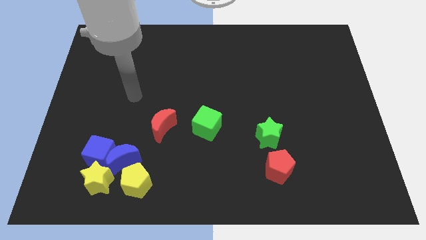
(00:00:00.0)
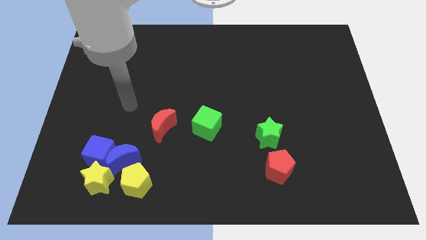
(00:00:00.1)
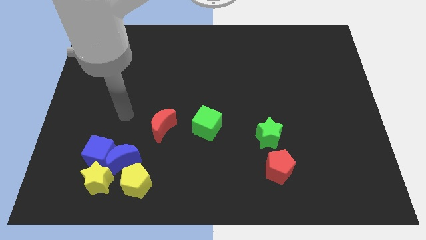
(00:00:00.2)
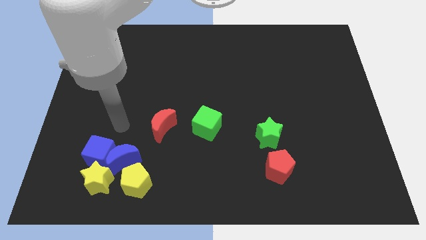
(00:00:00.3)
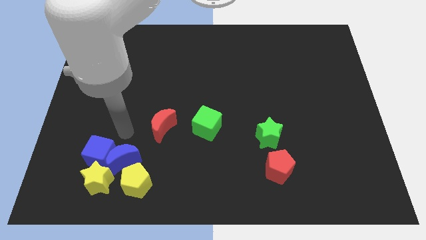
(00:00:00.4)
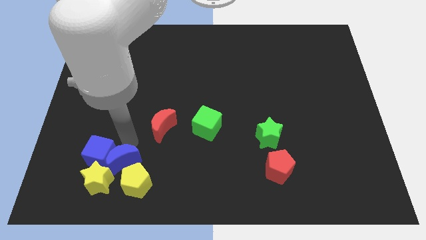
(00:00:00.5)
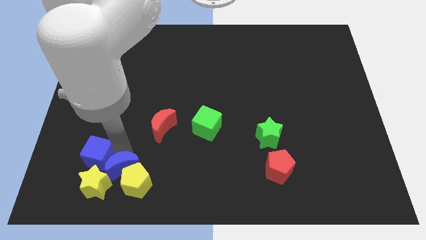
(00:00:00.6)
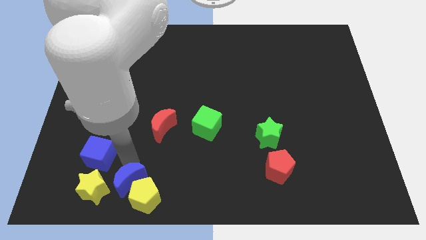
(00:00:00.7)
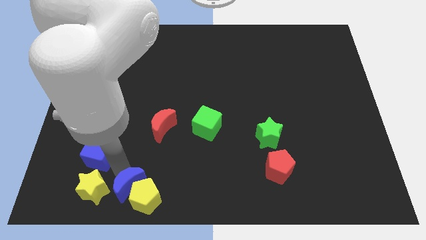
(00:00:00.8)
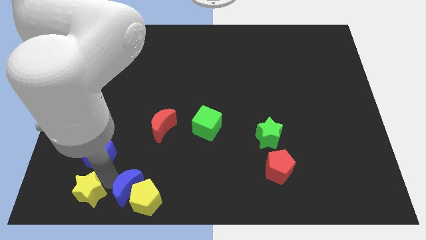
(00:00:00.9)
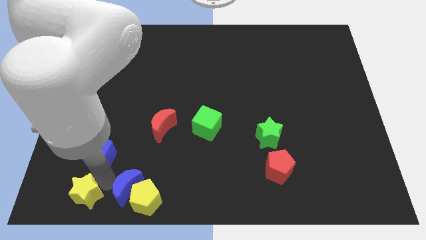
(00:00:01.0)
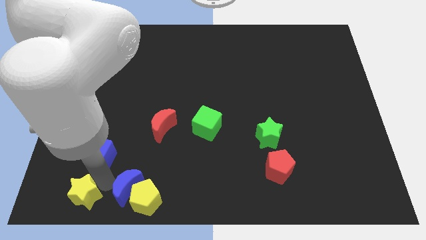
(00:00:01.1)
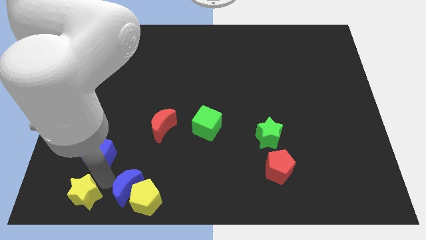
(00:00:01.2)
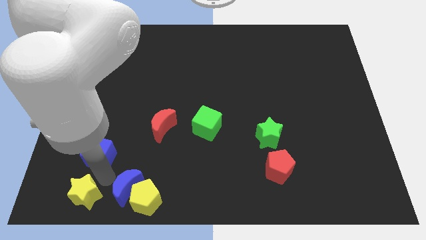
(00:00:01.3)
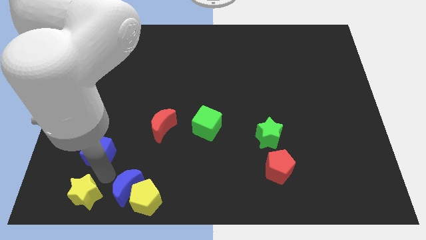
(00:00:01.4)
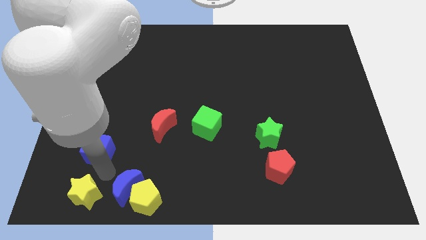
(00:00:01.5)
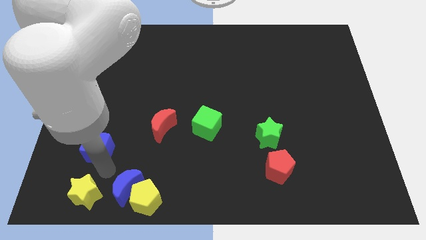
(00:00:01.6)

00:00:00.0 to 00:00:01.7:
move the blue cube away from the blue moon and yellow star

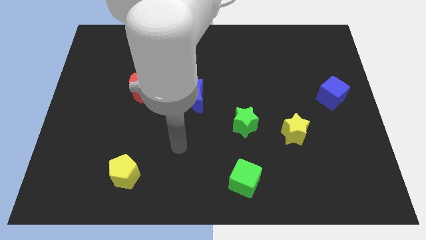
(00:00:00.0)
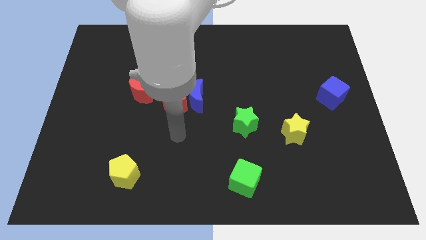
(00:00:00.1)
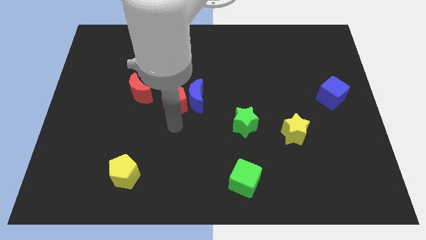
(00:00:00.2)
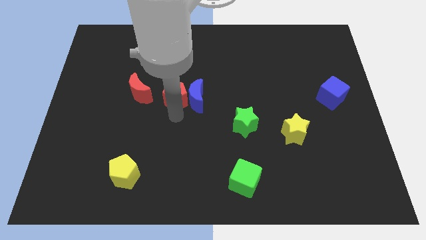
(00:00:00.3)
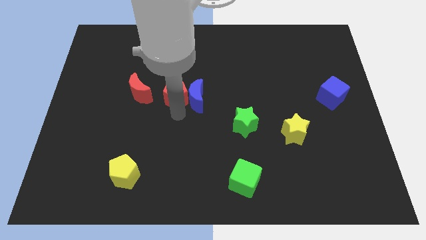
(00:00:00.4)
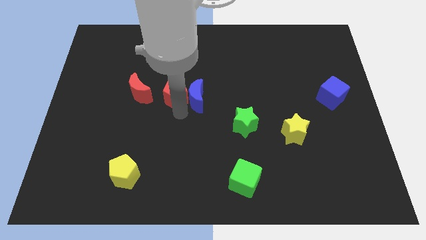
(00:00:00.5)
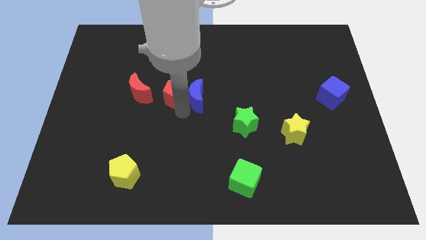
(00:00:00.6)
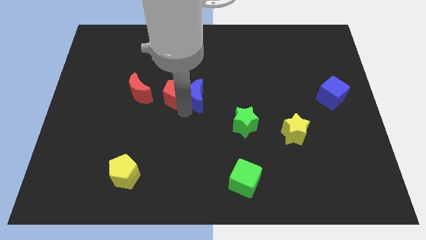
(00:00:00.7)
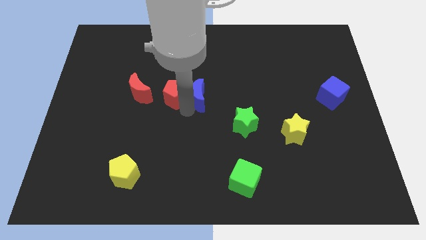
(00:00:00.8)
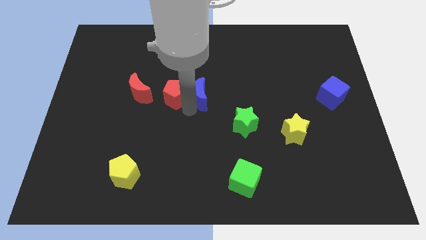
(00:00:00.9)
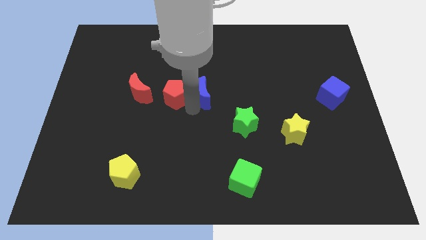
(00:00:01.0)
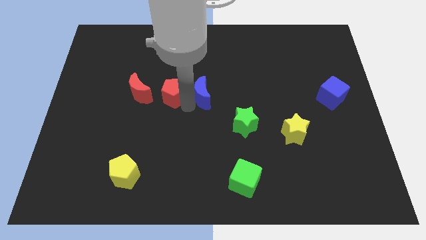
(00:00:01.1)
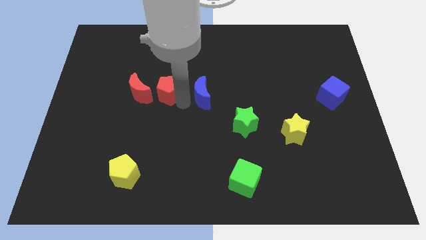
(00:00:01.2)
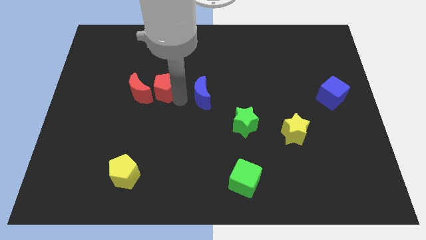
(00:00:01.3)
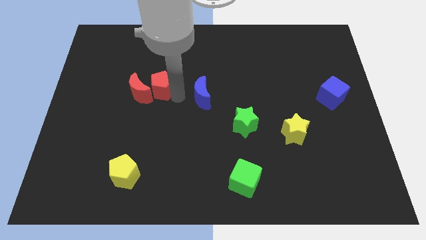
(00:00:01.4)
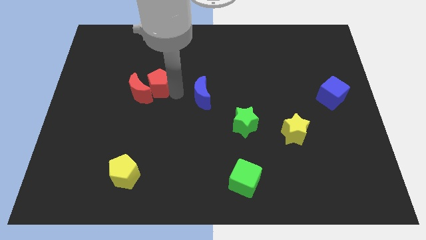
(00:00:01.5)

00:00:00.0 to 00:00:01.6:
separate the blue moon from the red pentagon

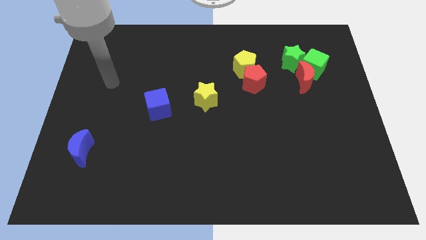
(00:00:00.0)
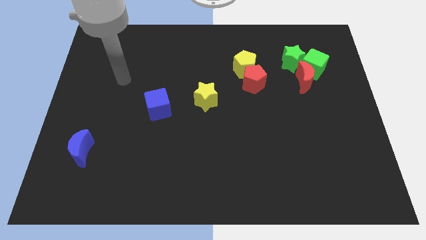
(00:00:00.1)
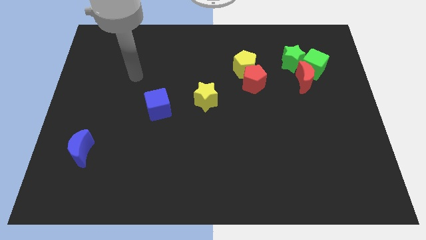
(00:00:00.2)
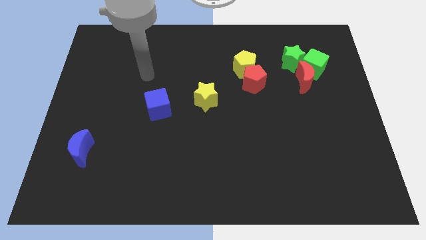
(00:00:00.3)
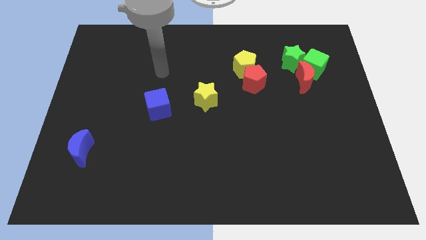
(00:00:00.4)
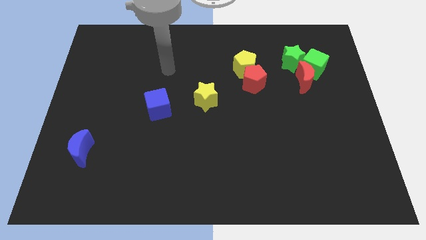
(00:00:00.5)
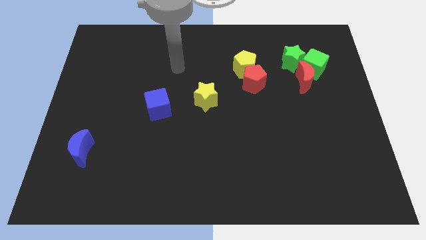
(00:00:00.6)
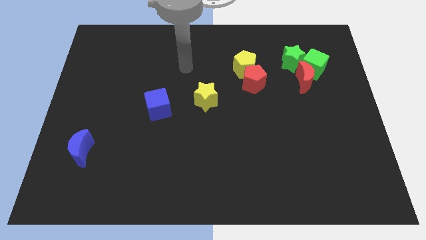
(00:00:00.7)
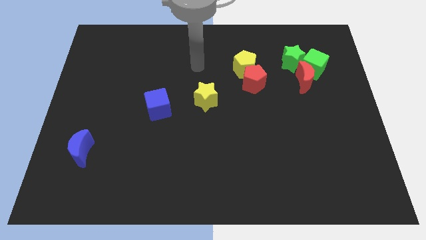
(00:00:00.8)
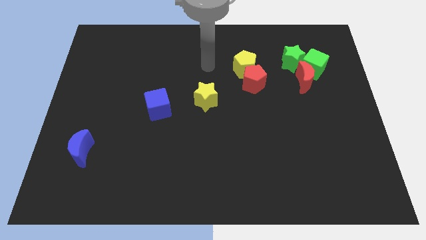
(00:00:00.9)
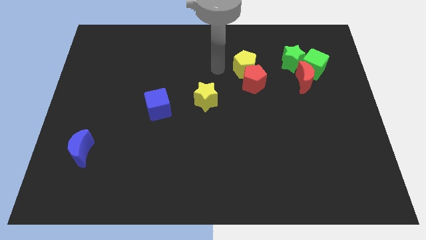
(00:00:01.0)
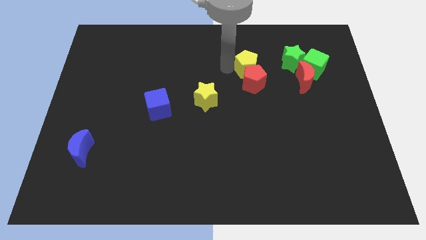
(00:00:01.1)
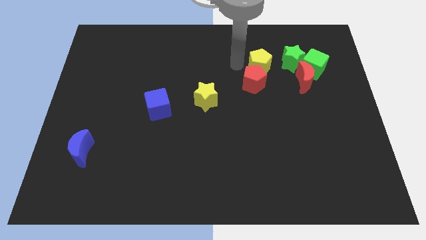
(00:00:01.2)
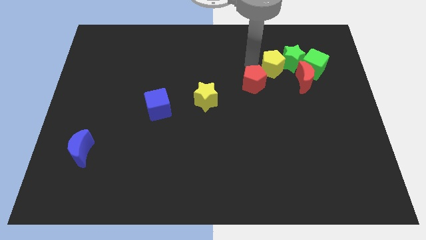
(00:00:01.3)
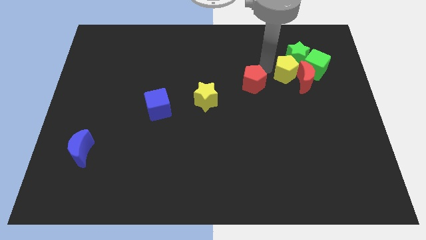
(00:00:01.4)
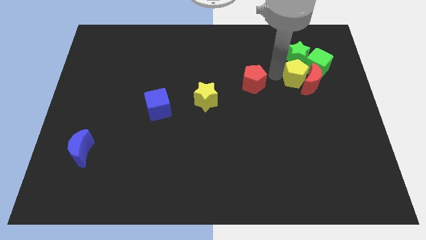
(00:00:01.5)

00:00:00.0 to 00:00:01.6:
move the red pentagon away from the yellow pentagon

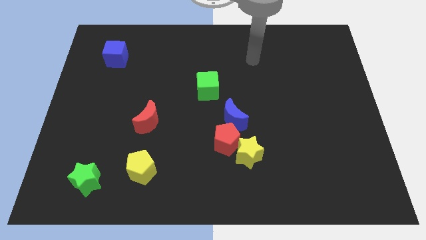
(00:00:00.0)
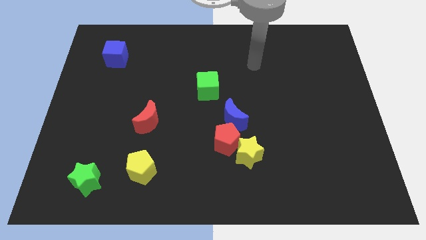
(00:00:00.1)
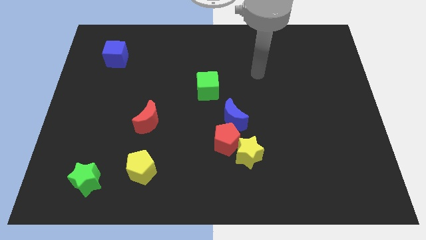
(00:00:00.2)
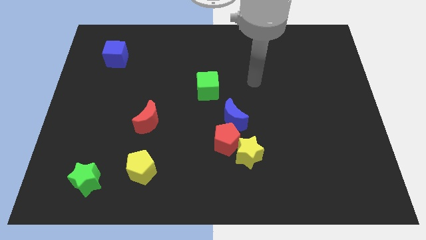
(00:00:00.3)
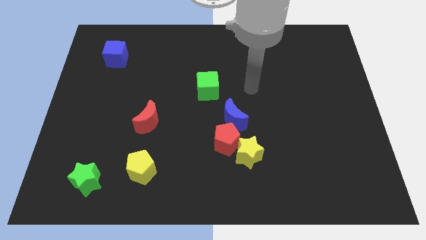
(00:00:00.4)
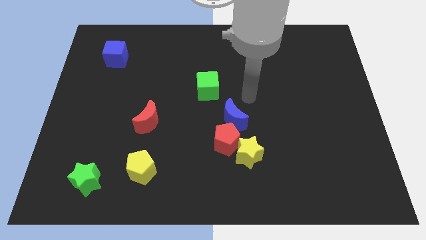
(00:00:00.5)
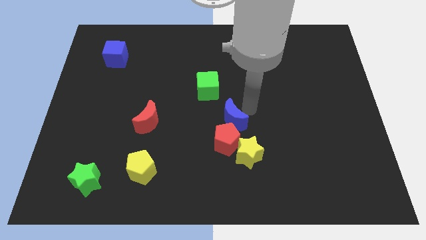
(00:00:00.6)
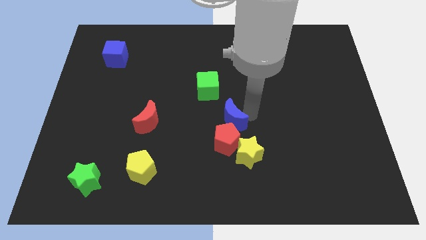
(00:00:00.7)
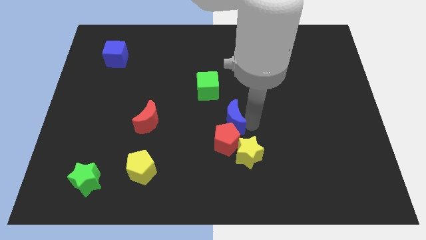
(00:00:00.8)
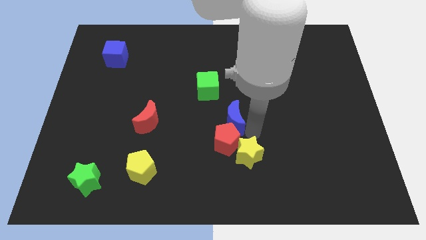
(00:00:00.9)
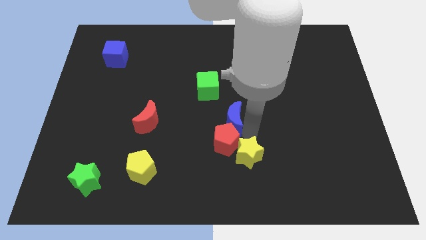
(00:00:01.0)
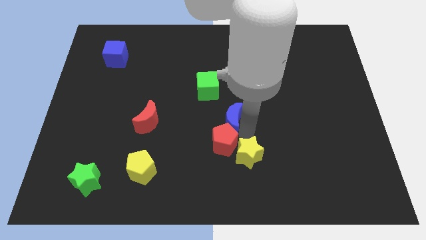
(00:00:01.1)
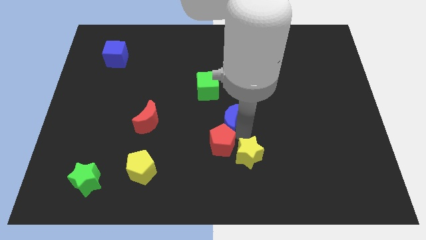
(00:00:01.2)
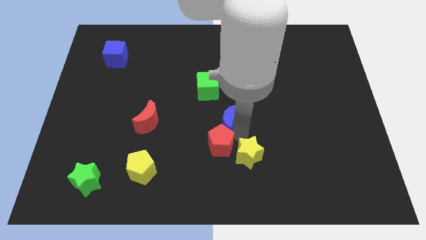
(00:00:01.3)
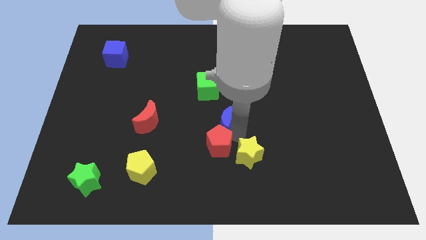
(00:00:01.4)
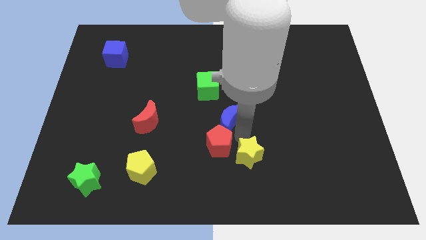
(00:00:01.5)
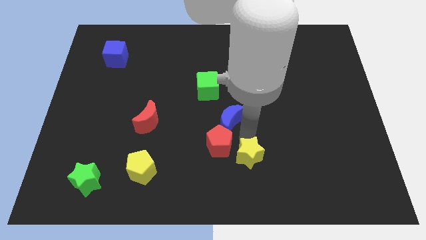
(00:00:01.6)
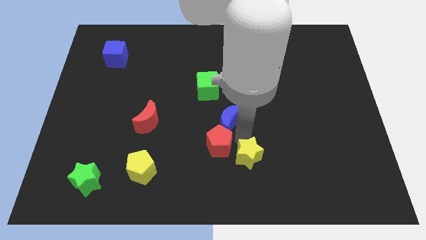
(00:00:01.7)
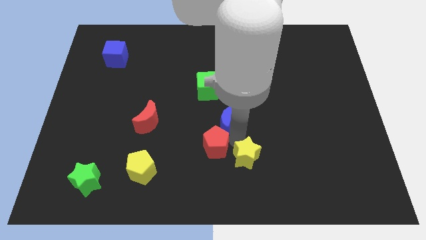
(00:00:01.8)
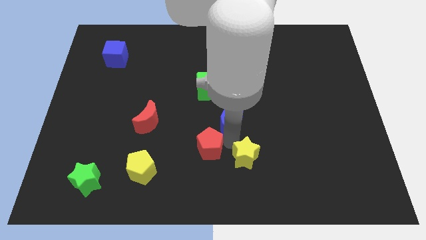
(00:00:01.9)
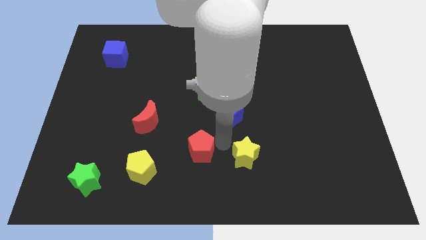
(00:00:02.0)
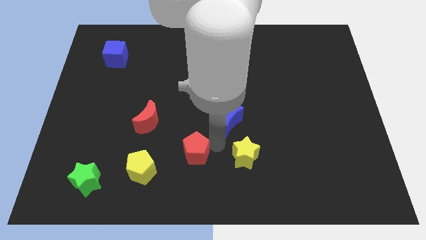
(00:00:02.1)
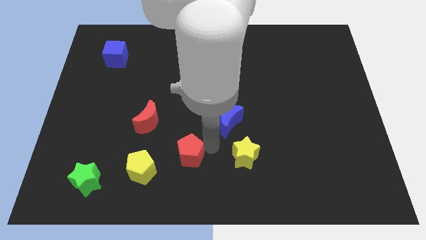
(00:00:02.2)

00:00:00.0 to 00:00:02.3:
pull the red pentagon apart from the yellow star and blue moon

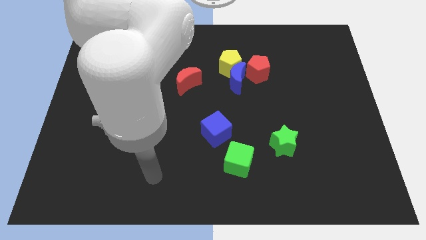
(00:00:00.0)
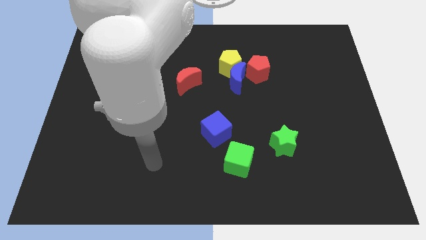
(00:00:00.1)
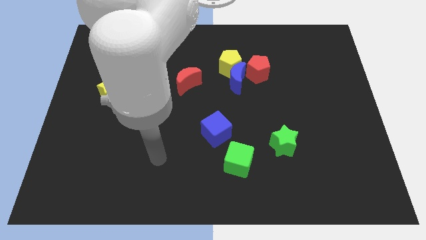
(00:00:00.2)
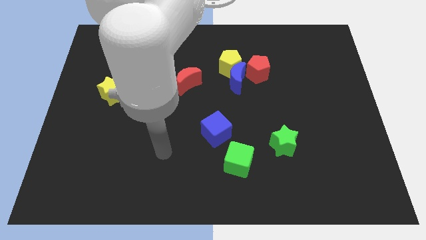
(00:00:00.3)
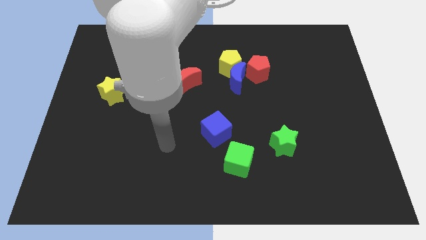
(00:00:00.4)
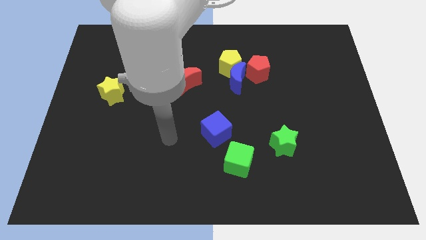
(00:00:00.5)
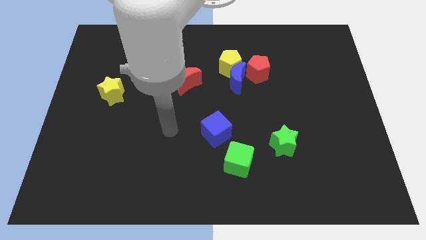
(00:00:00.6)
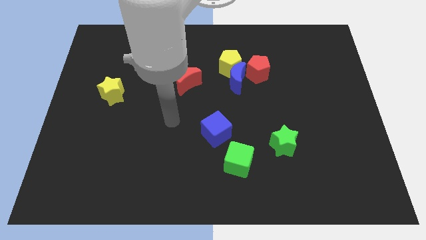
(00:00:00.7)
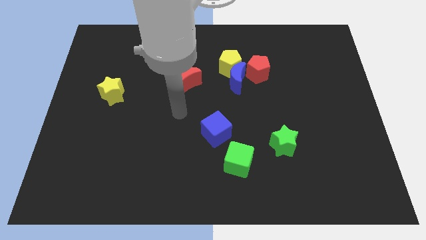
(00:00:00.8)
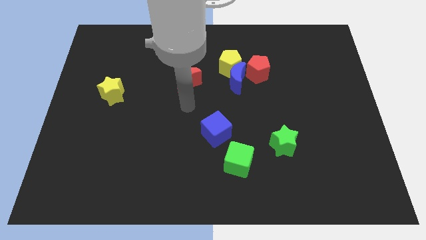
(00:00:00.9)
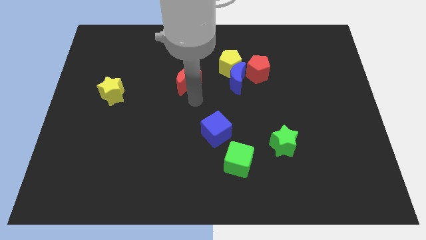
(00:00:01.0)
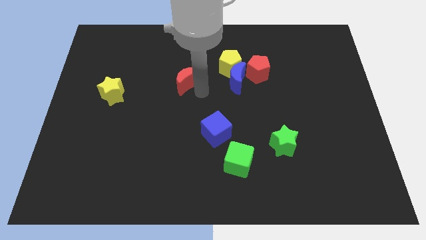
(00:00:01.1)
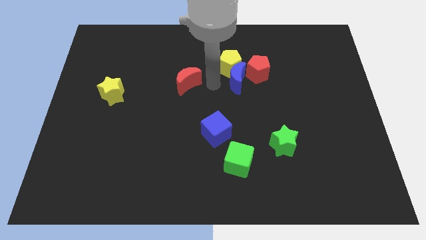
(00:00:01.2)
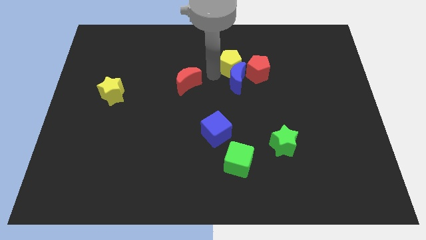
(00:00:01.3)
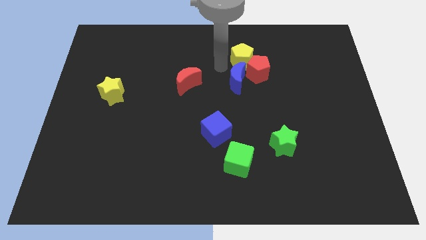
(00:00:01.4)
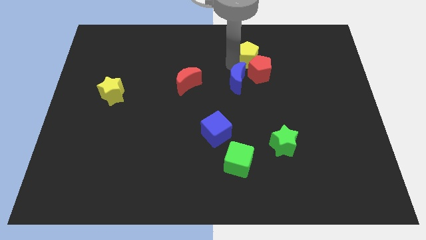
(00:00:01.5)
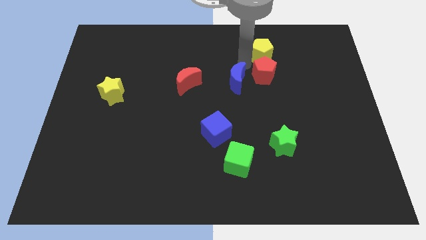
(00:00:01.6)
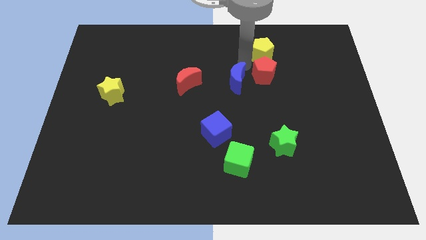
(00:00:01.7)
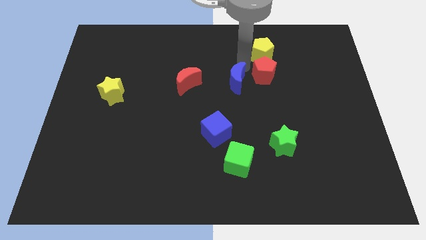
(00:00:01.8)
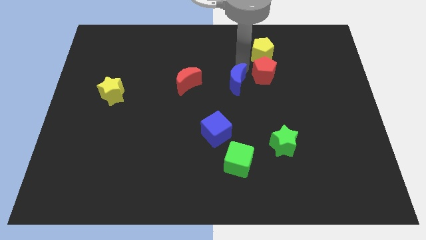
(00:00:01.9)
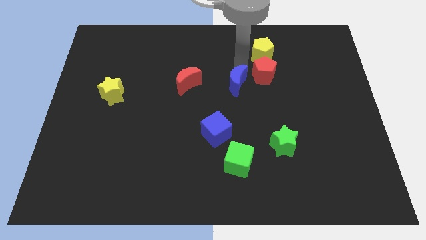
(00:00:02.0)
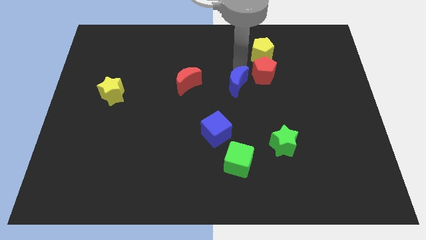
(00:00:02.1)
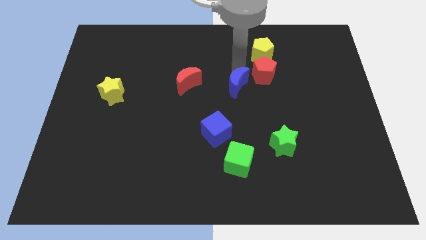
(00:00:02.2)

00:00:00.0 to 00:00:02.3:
pull the blue moon apart from the yellow pentagon and red pentagon
